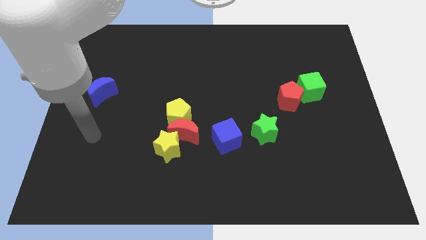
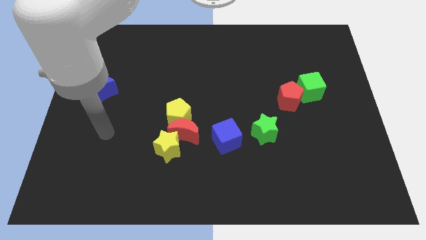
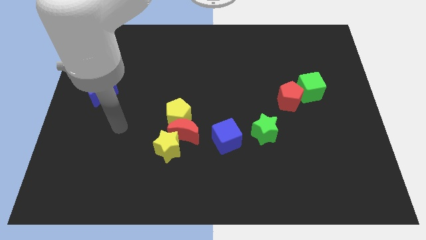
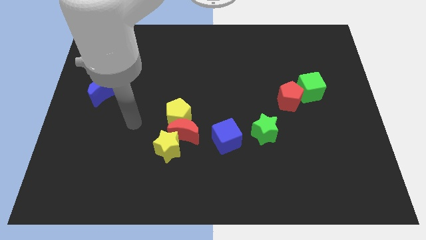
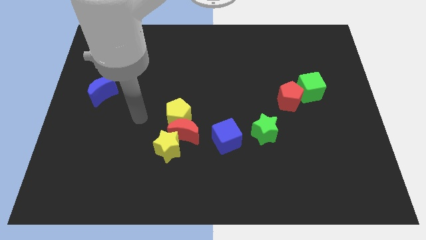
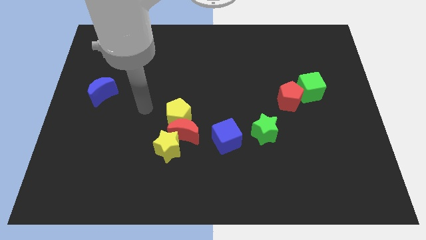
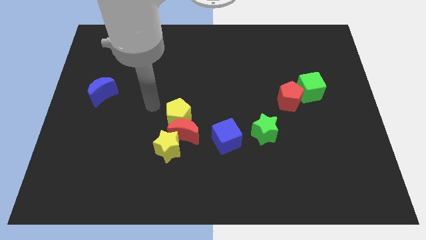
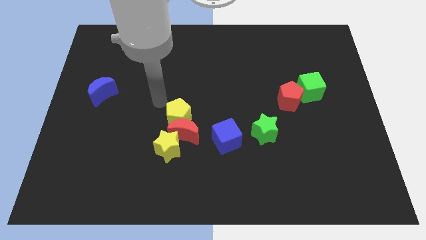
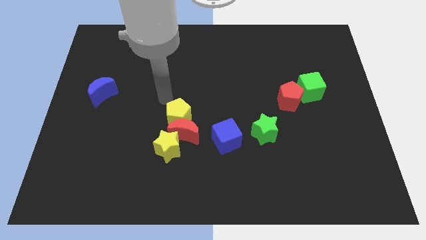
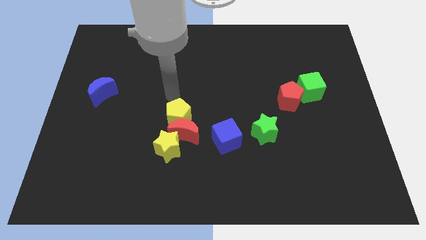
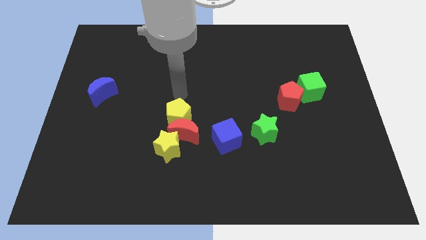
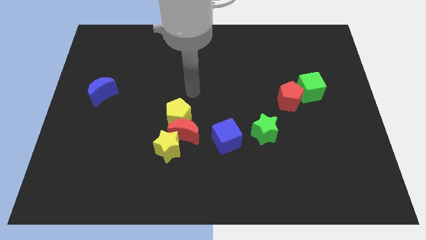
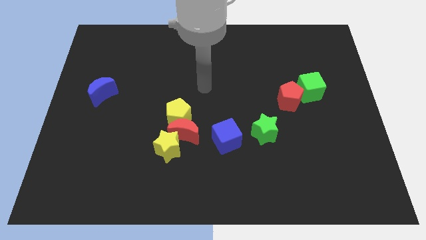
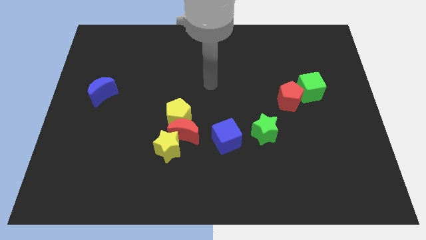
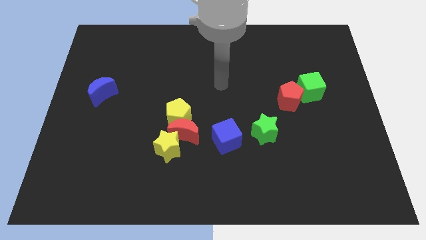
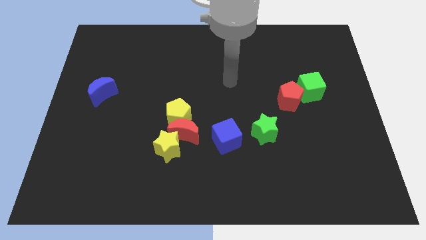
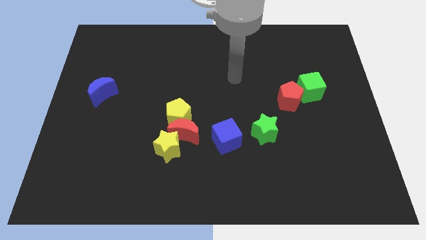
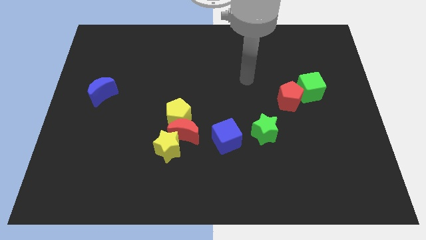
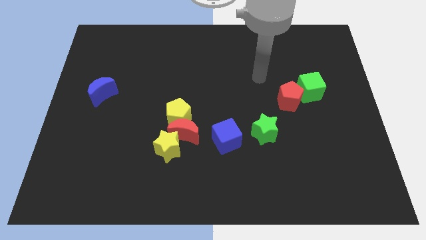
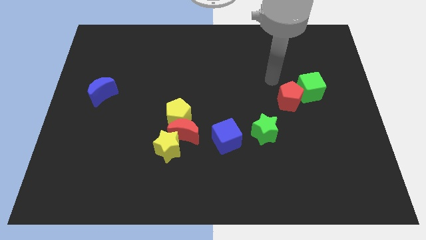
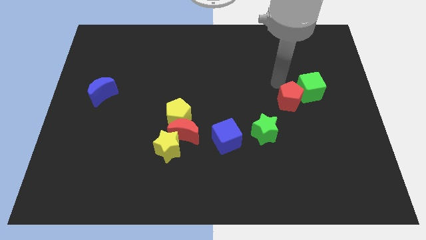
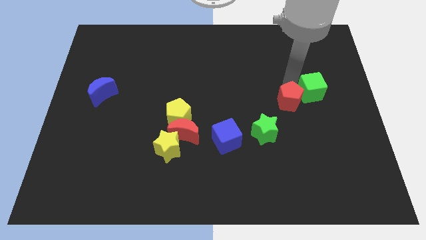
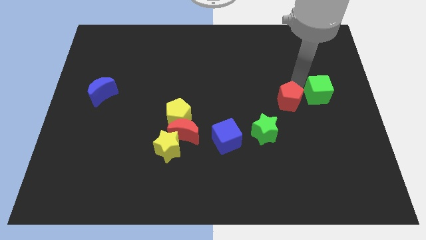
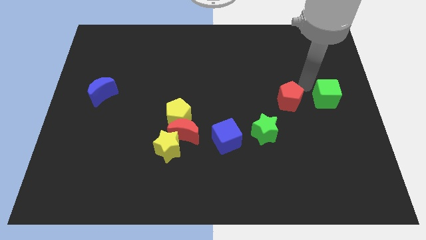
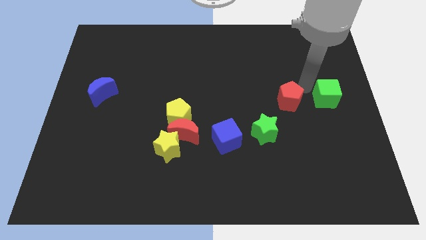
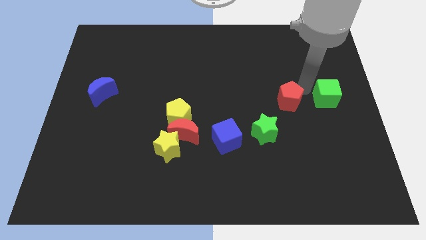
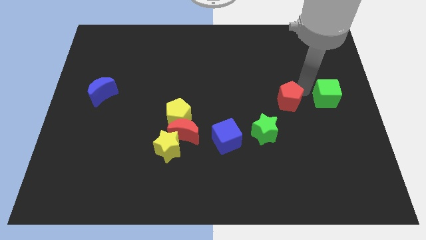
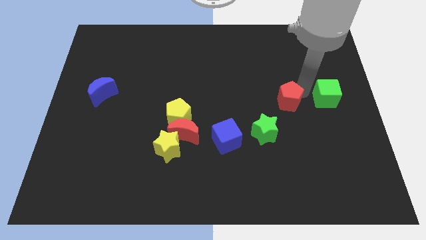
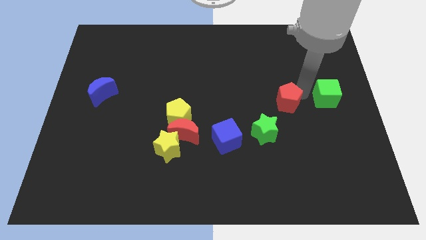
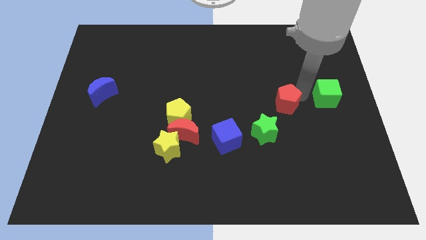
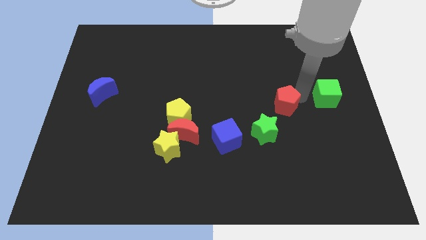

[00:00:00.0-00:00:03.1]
move the red pentagon away from the green cube

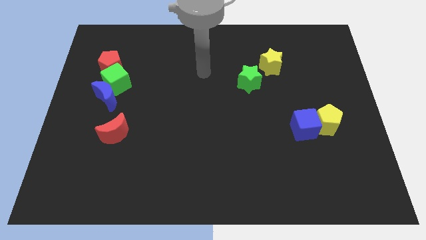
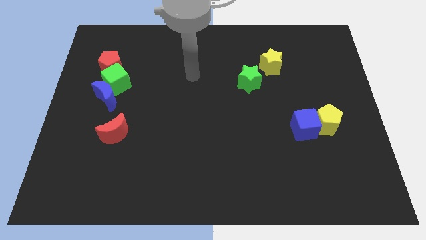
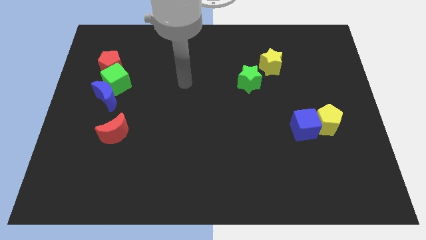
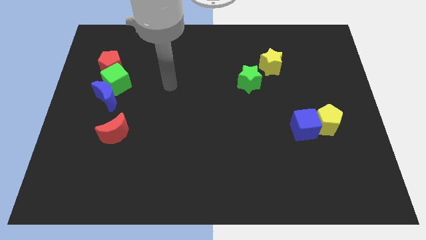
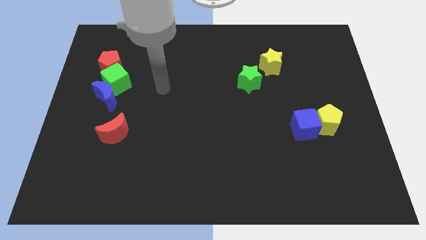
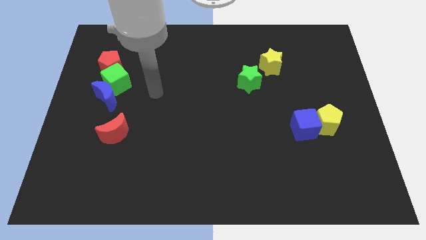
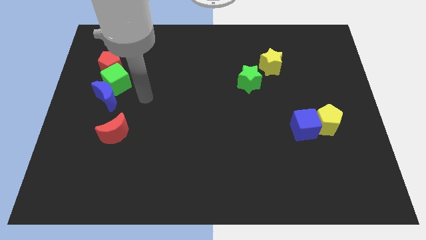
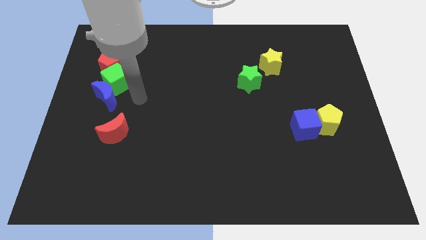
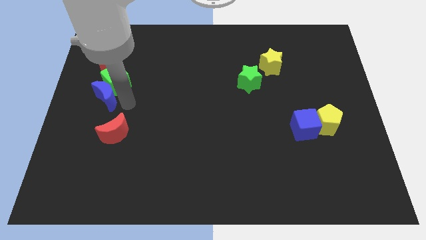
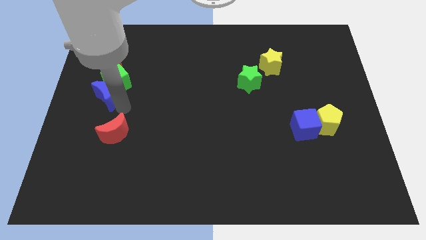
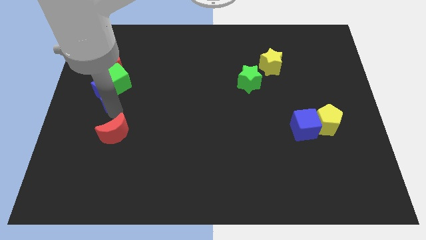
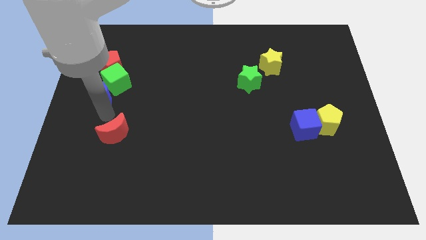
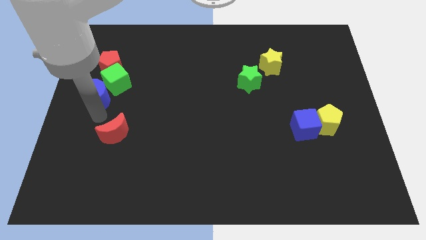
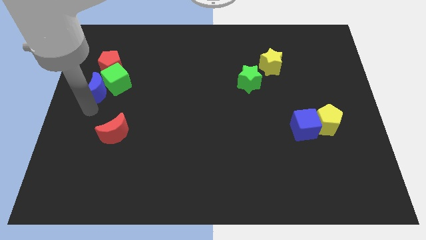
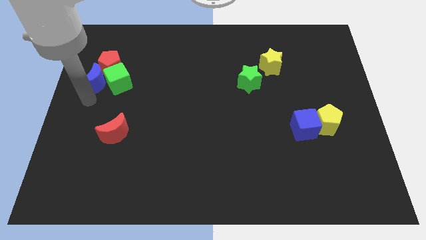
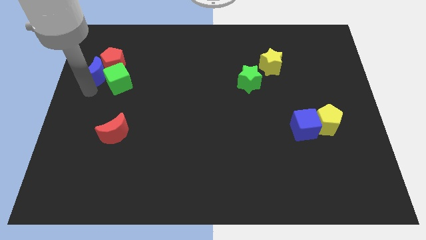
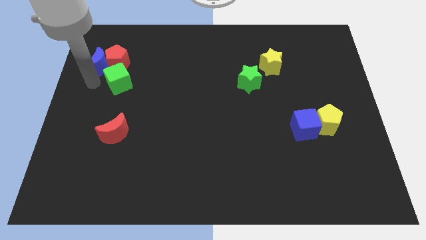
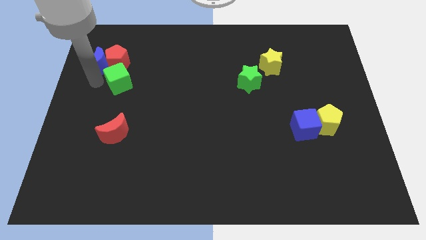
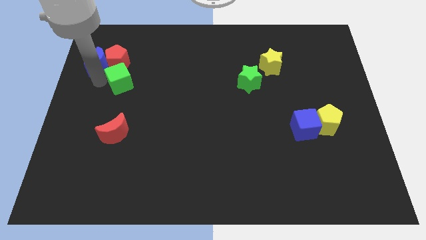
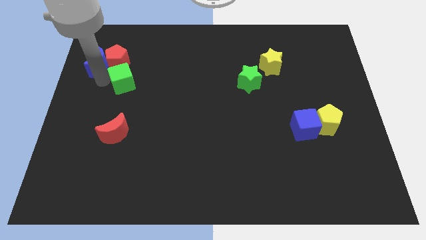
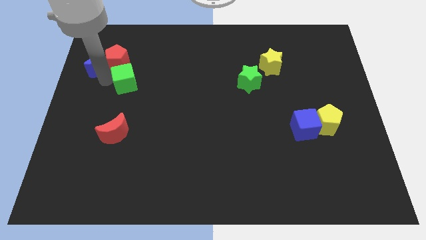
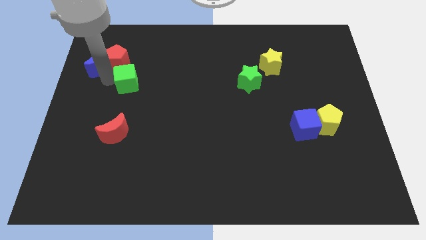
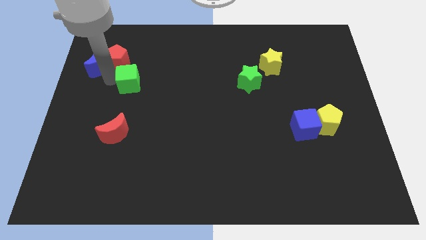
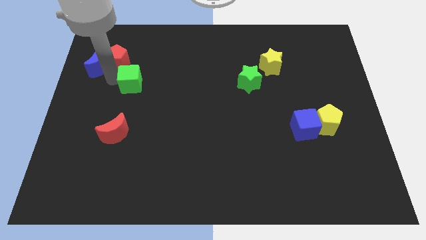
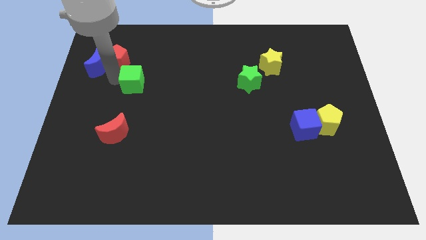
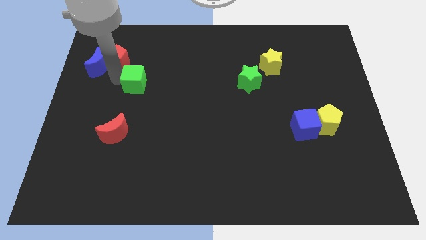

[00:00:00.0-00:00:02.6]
move the green cube away from the blue moon and red pentagon

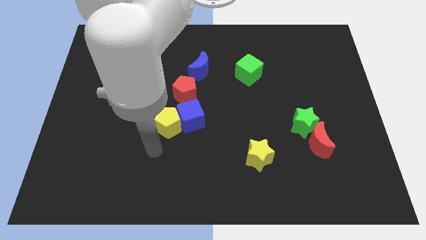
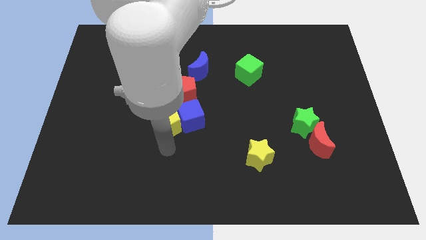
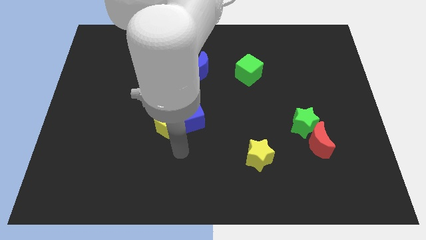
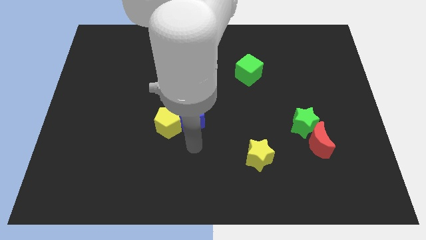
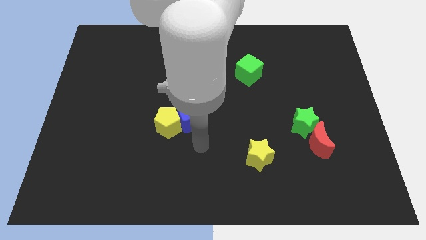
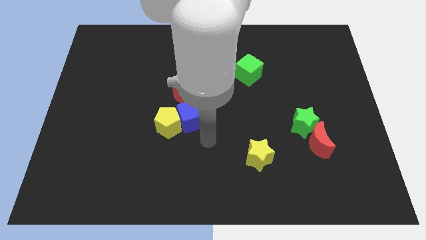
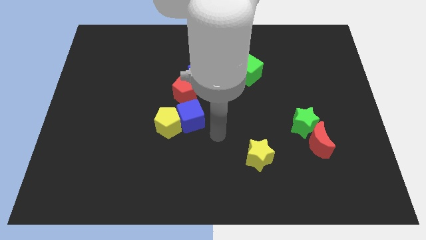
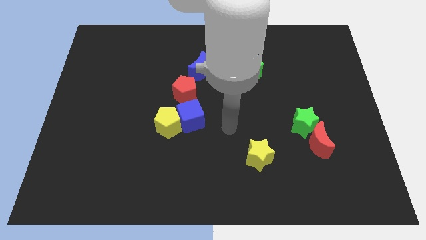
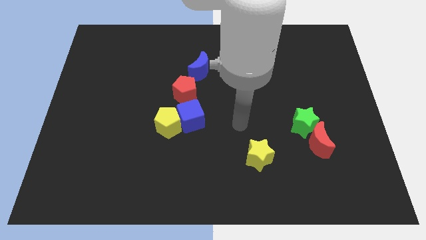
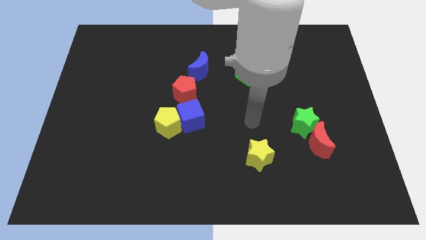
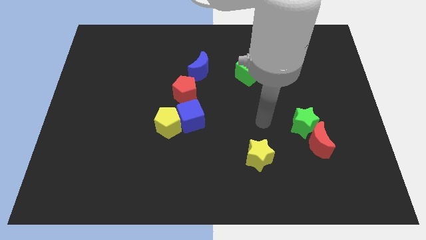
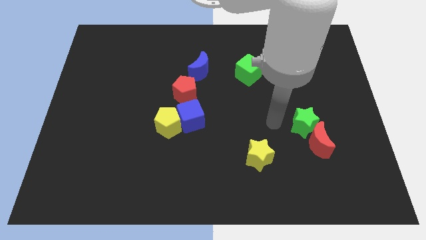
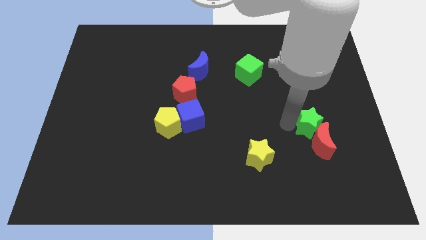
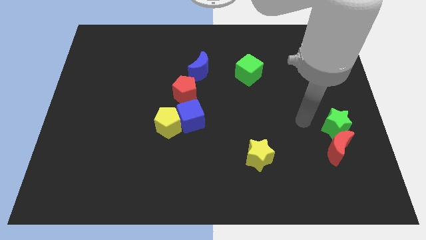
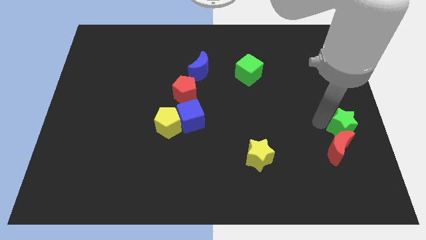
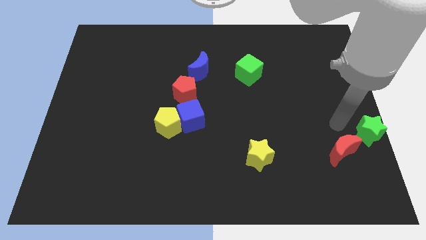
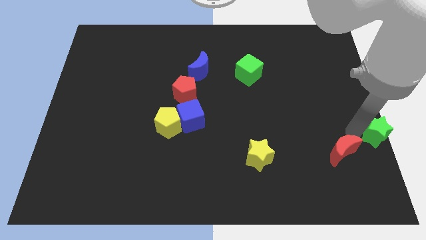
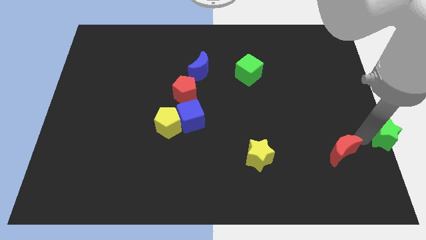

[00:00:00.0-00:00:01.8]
pull the red moon apart from the green star

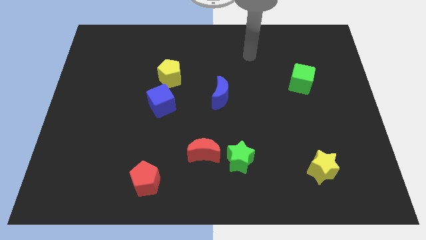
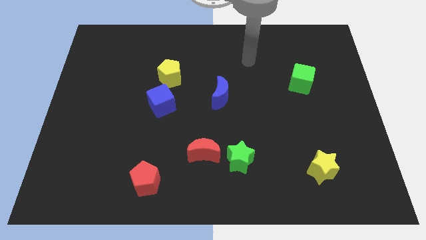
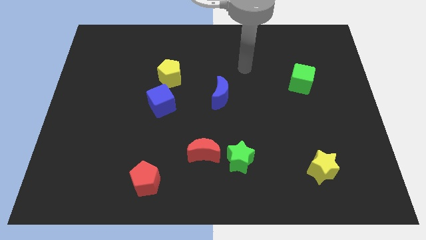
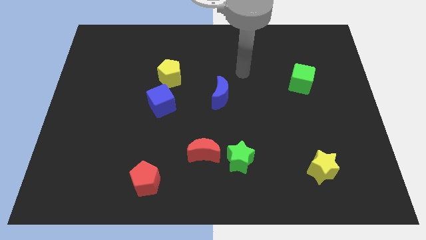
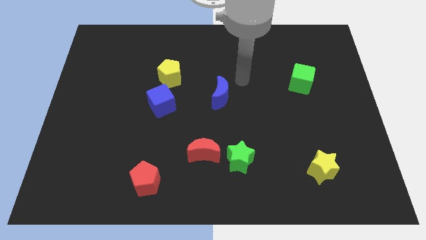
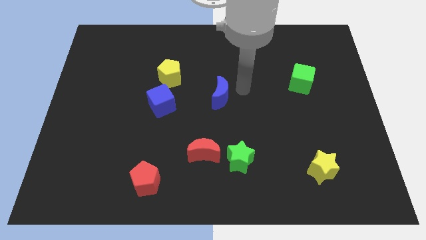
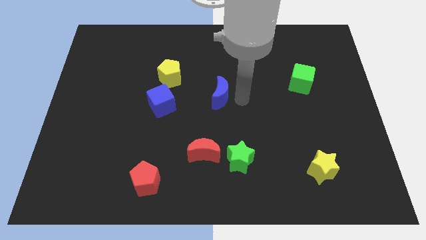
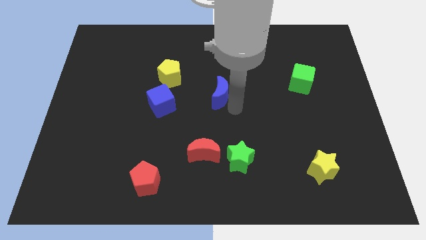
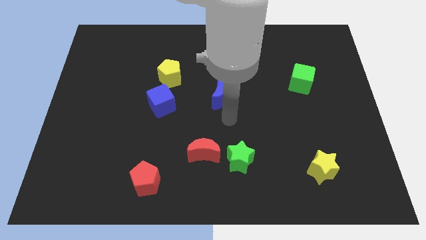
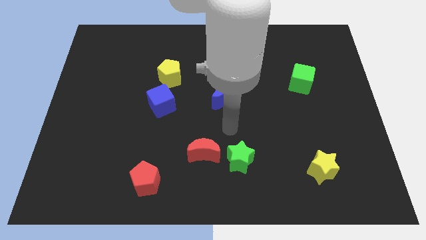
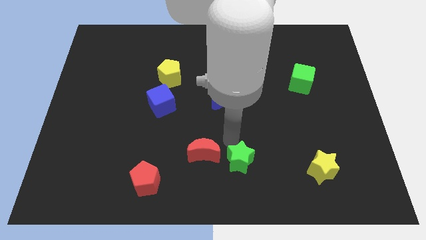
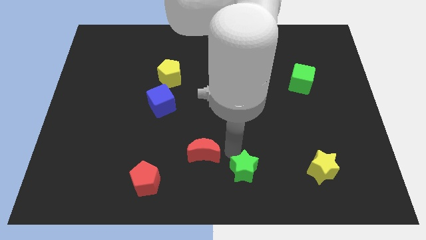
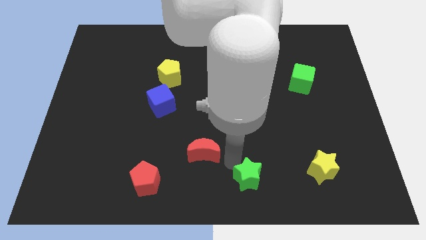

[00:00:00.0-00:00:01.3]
separate the red moon from the green star

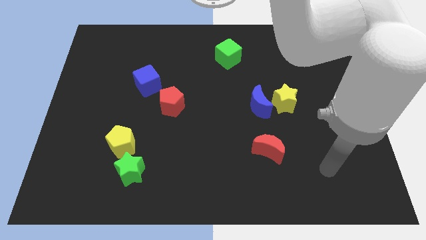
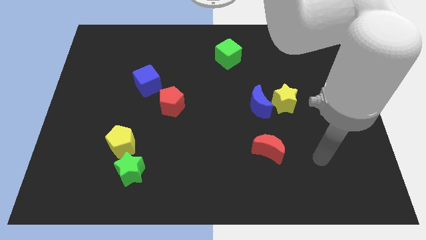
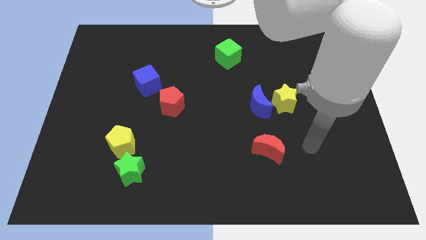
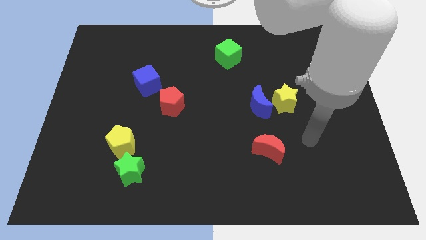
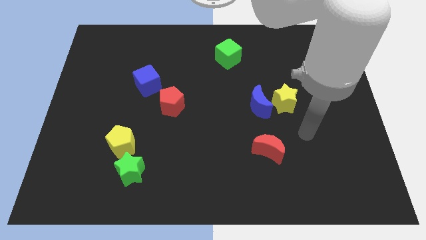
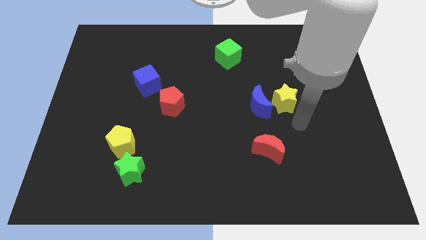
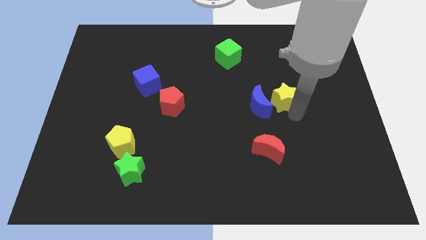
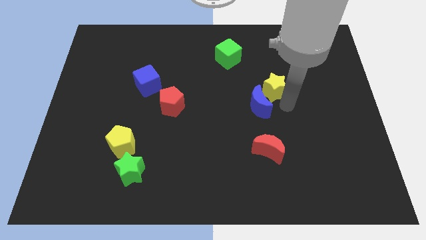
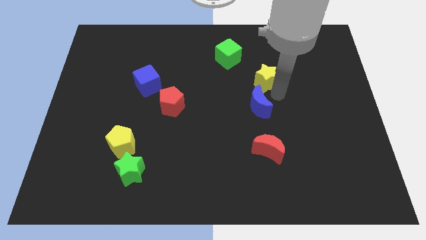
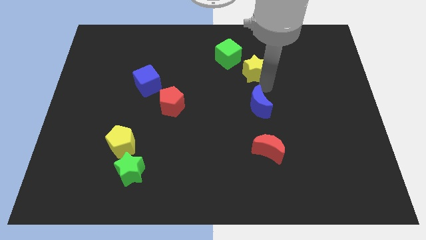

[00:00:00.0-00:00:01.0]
separate the blue moon from the yellow star
